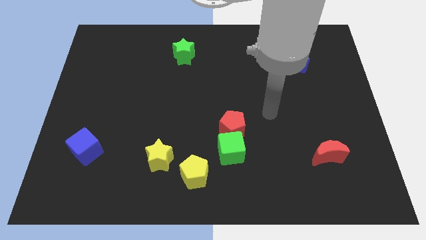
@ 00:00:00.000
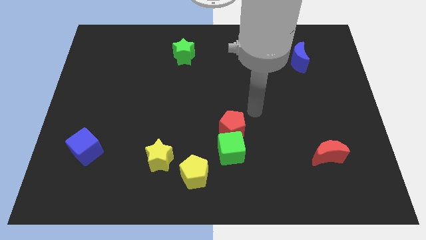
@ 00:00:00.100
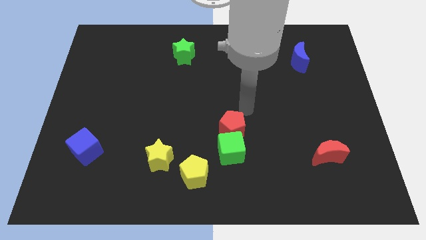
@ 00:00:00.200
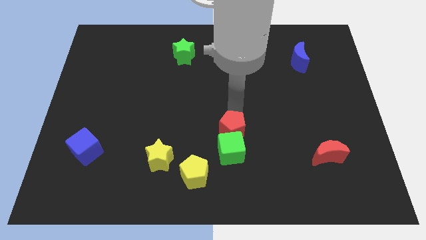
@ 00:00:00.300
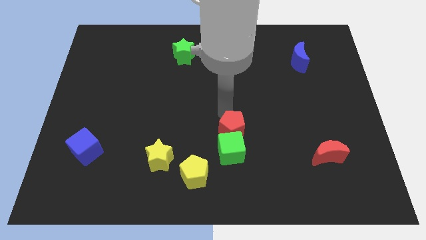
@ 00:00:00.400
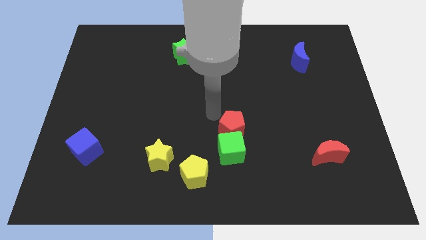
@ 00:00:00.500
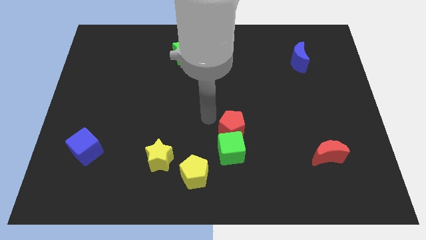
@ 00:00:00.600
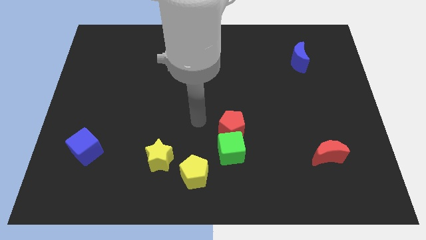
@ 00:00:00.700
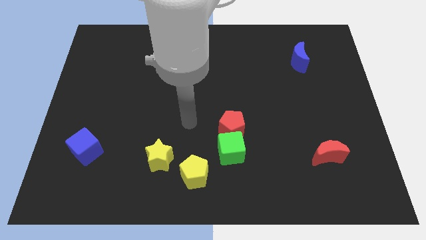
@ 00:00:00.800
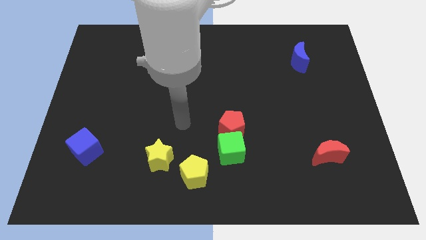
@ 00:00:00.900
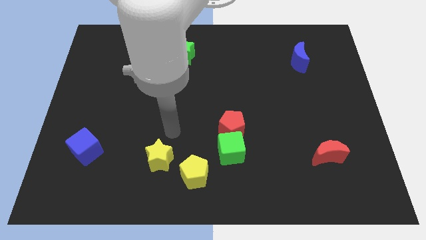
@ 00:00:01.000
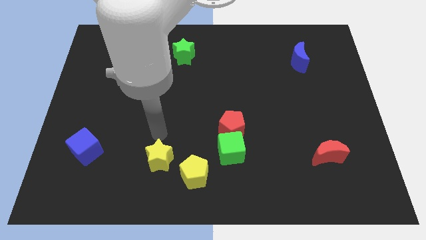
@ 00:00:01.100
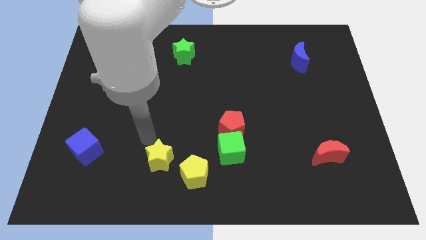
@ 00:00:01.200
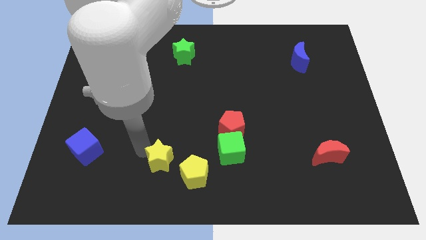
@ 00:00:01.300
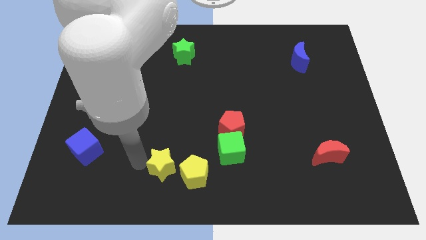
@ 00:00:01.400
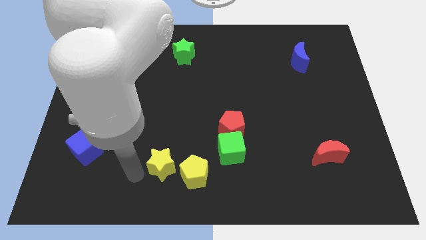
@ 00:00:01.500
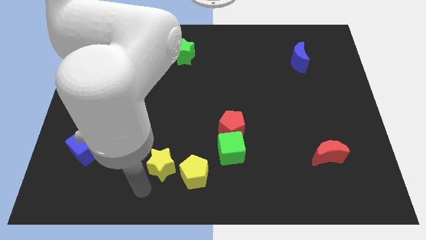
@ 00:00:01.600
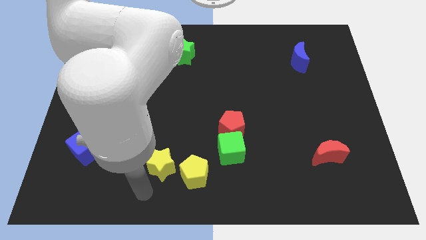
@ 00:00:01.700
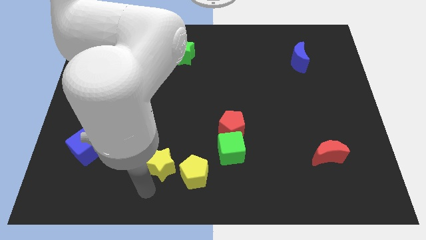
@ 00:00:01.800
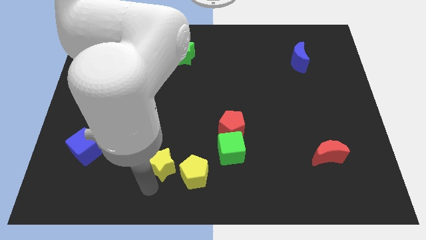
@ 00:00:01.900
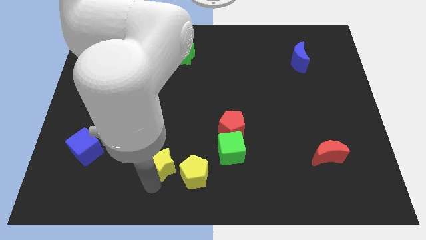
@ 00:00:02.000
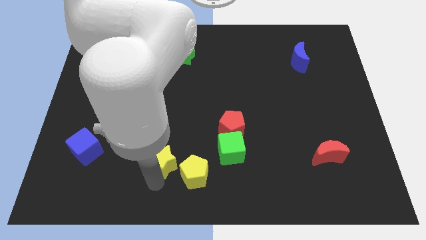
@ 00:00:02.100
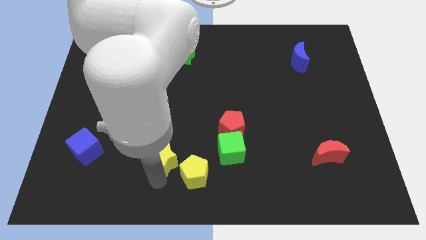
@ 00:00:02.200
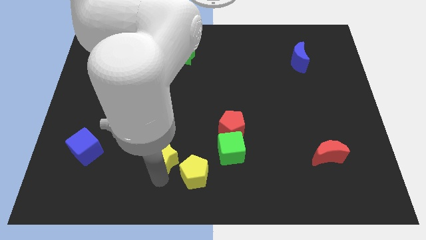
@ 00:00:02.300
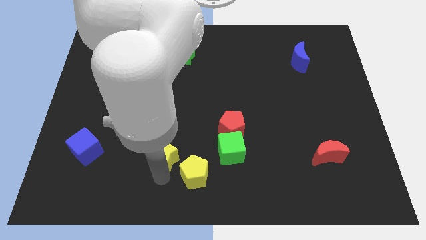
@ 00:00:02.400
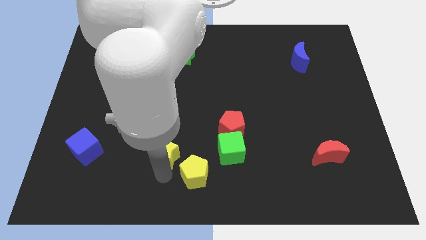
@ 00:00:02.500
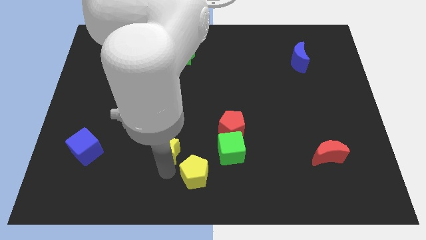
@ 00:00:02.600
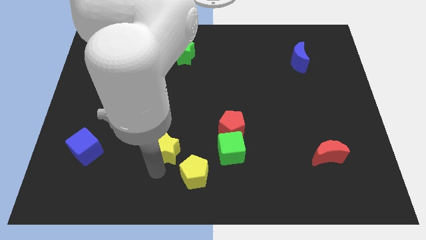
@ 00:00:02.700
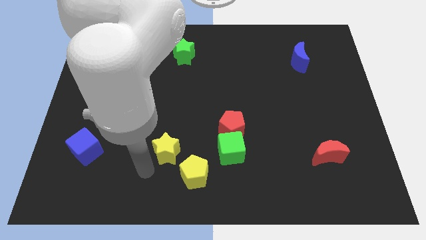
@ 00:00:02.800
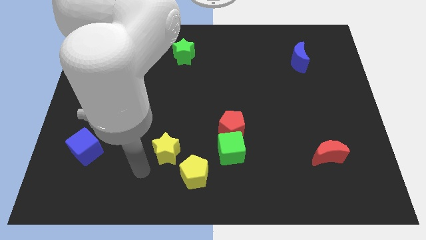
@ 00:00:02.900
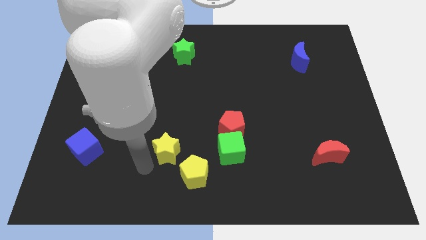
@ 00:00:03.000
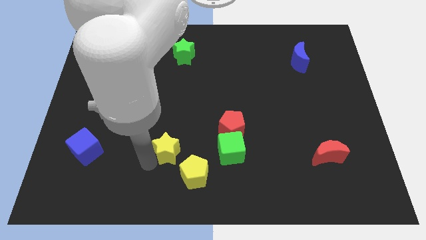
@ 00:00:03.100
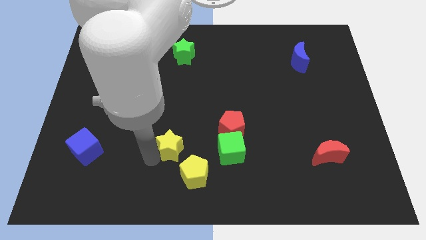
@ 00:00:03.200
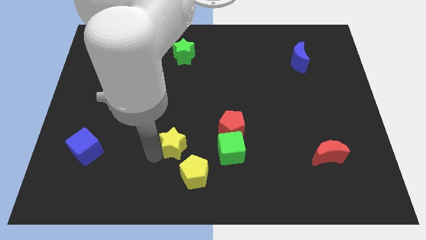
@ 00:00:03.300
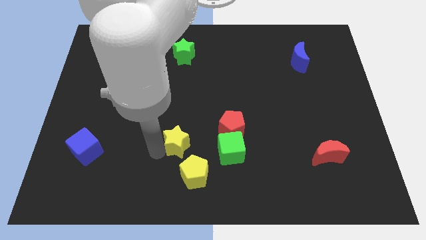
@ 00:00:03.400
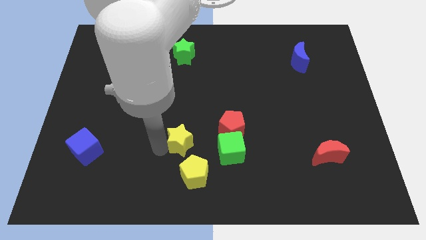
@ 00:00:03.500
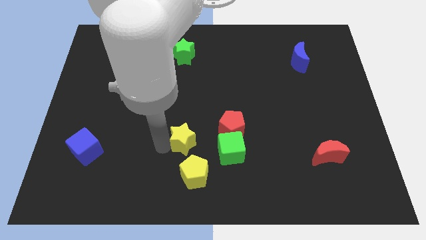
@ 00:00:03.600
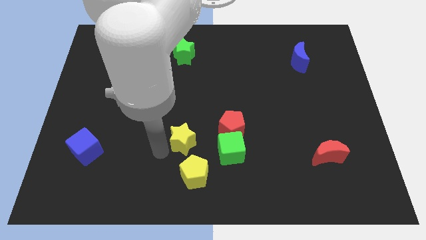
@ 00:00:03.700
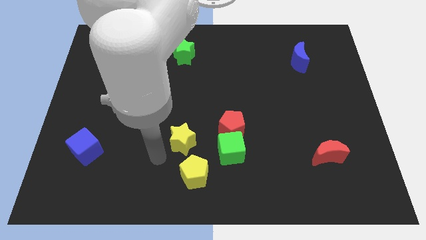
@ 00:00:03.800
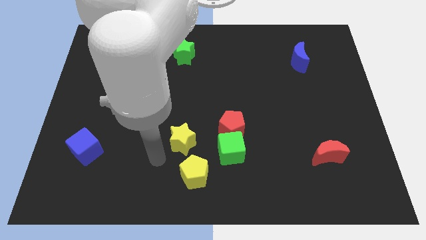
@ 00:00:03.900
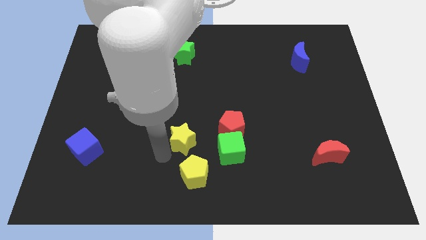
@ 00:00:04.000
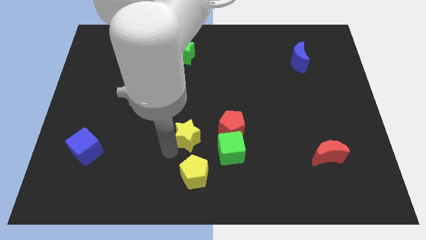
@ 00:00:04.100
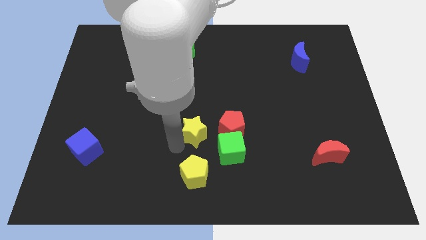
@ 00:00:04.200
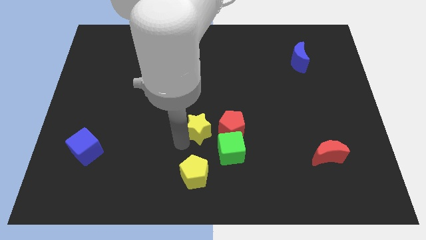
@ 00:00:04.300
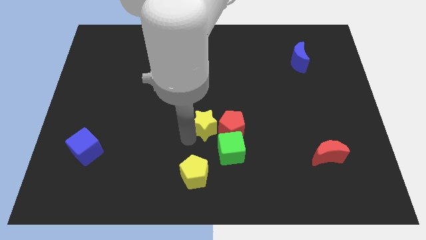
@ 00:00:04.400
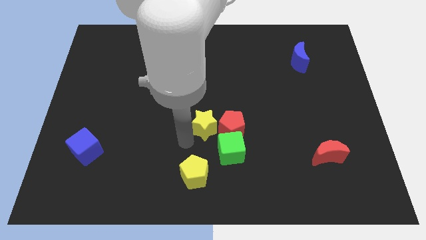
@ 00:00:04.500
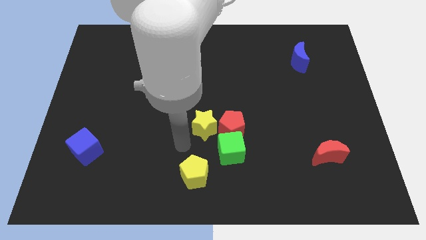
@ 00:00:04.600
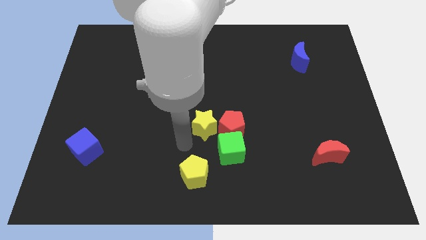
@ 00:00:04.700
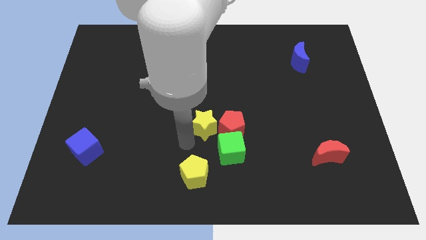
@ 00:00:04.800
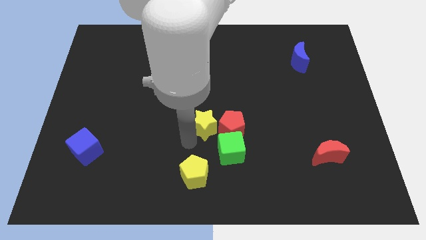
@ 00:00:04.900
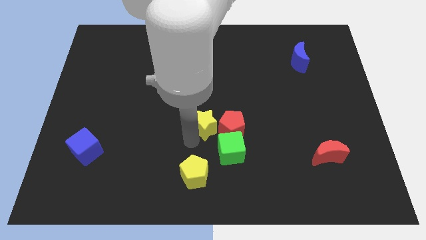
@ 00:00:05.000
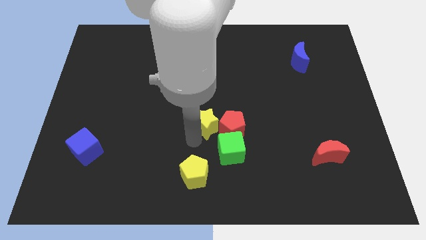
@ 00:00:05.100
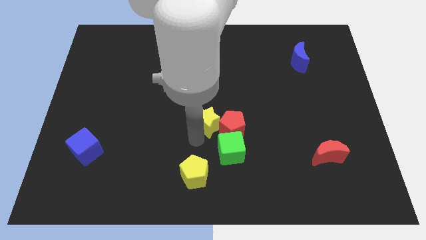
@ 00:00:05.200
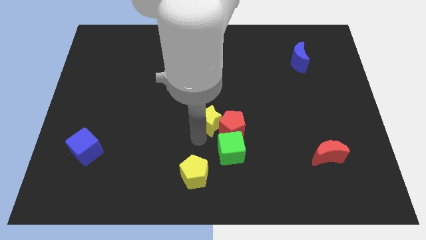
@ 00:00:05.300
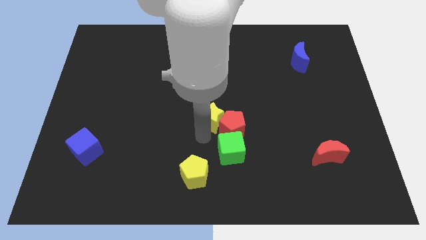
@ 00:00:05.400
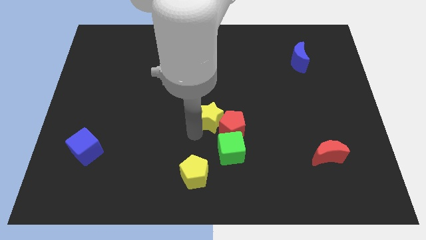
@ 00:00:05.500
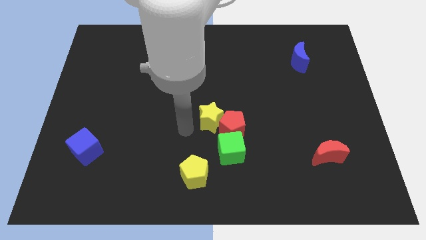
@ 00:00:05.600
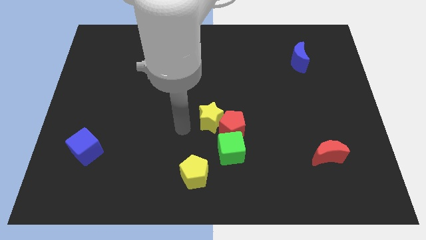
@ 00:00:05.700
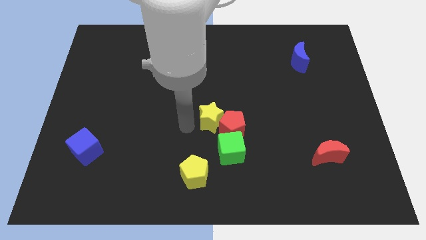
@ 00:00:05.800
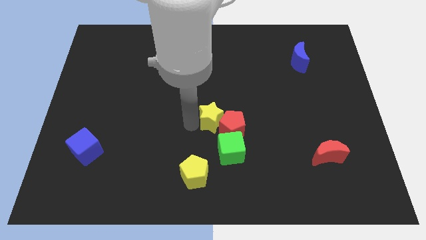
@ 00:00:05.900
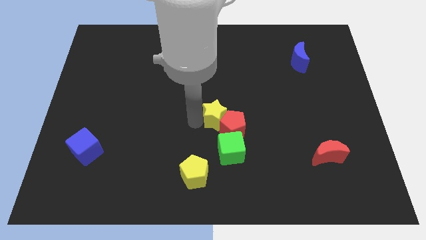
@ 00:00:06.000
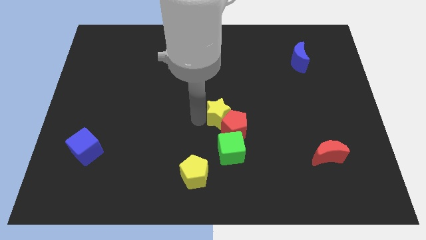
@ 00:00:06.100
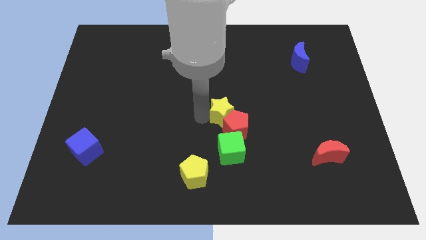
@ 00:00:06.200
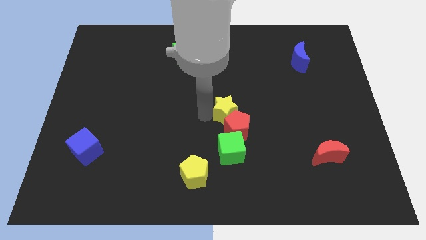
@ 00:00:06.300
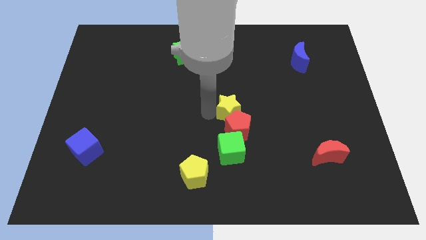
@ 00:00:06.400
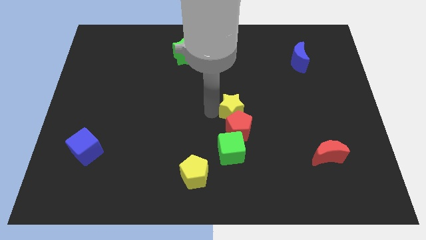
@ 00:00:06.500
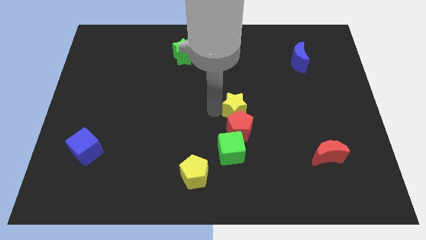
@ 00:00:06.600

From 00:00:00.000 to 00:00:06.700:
put the yellow star to the top right side of the red pentagon
